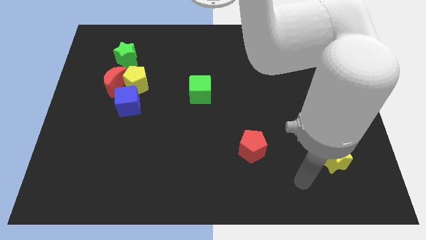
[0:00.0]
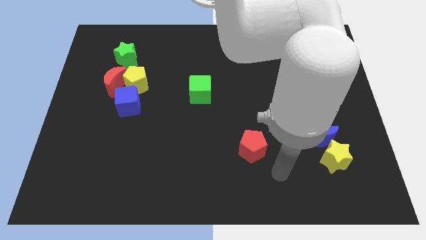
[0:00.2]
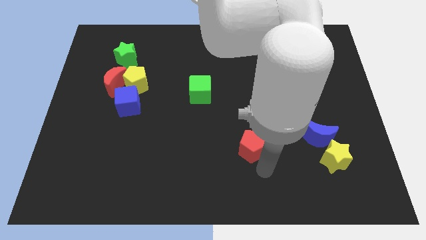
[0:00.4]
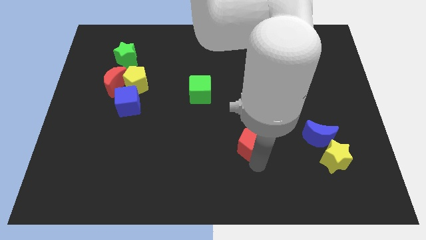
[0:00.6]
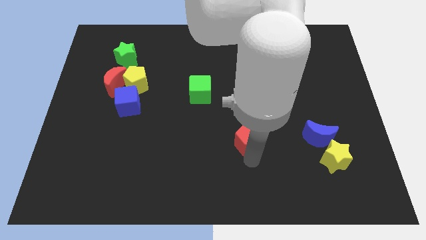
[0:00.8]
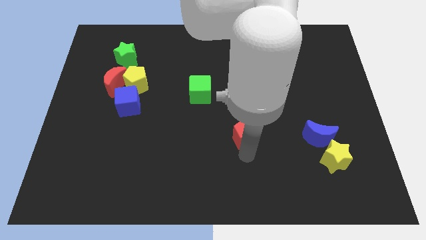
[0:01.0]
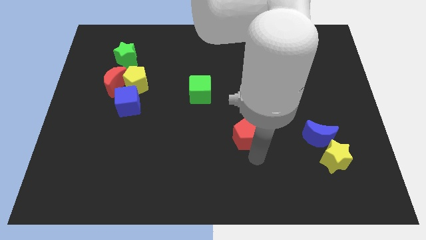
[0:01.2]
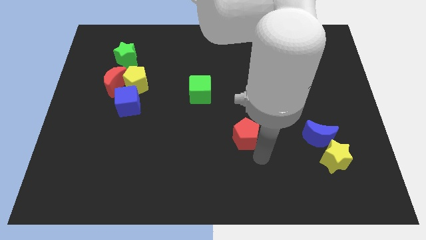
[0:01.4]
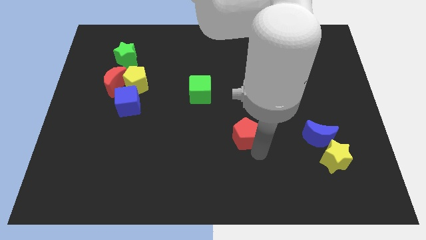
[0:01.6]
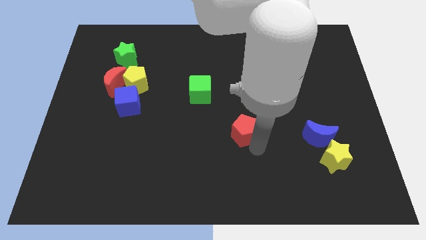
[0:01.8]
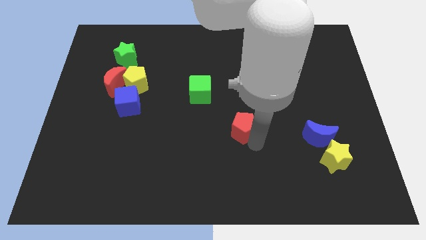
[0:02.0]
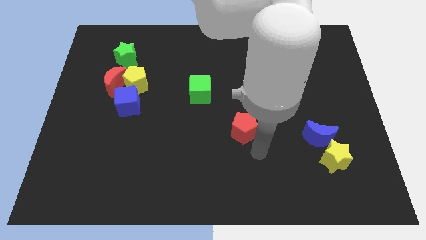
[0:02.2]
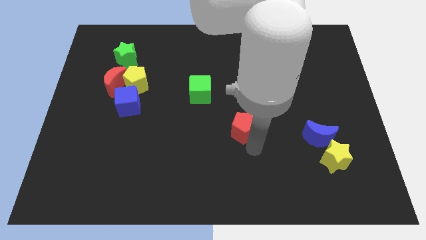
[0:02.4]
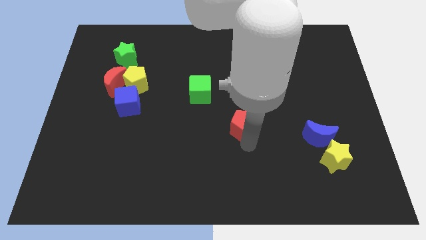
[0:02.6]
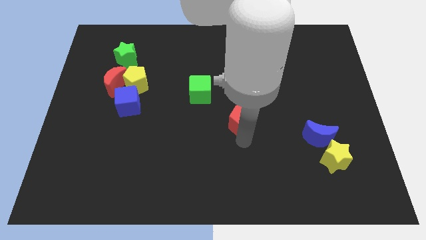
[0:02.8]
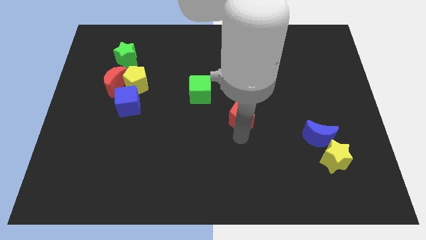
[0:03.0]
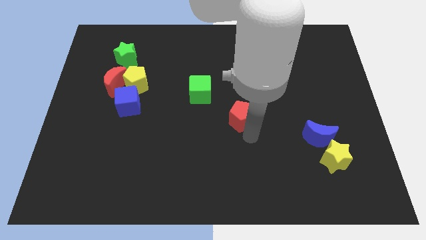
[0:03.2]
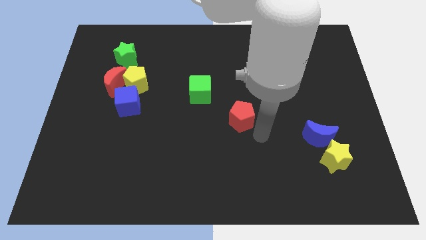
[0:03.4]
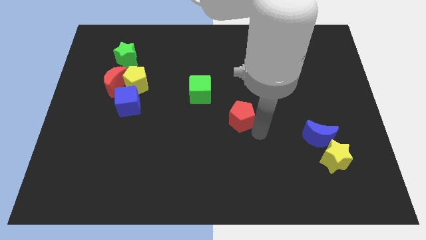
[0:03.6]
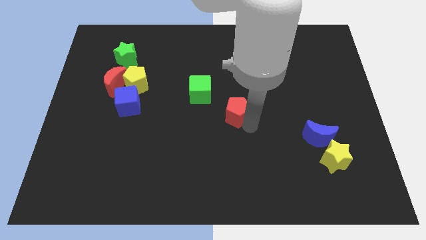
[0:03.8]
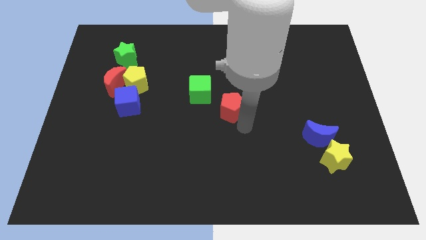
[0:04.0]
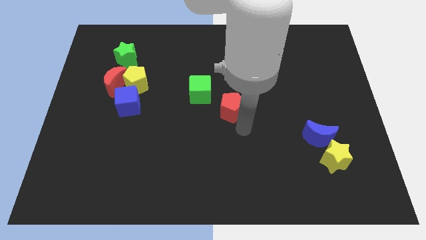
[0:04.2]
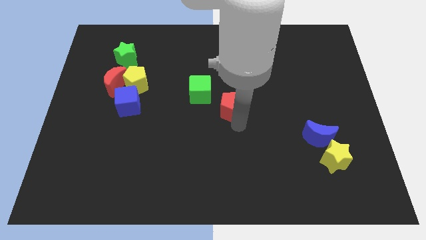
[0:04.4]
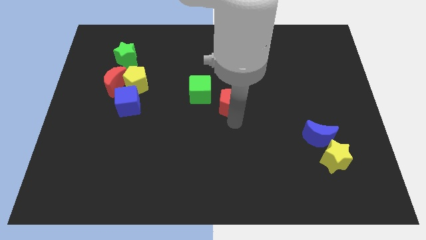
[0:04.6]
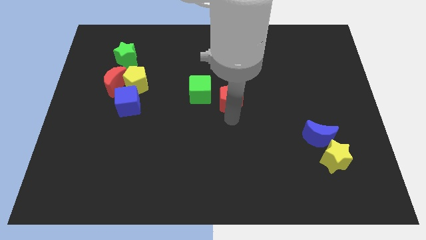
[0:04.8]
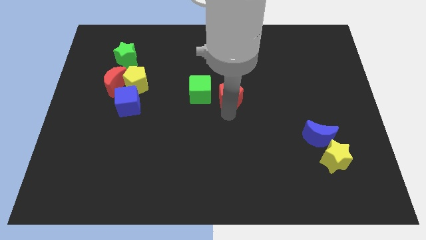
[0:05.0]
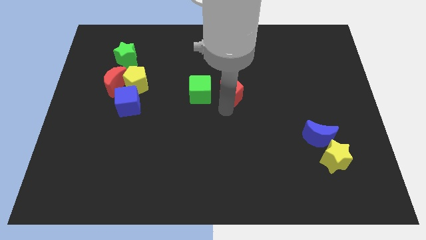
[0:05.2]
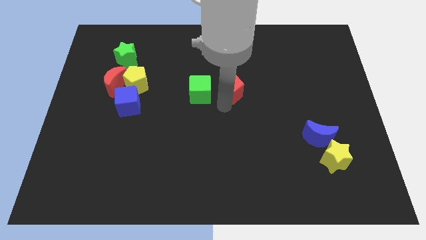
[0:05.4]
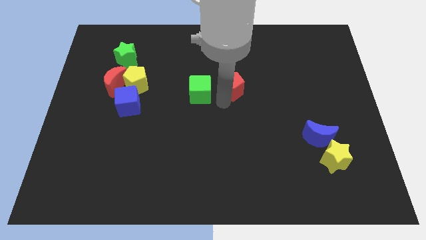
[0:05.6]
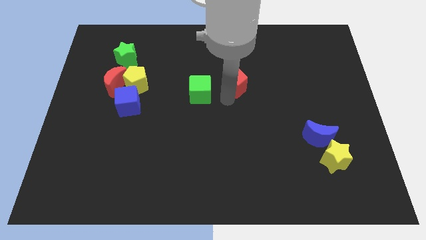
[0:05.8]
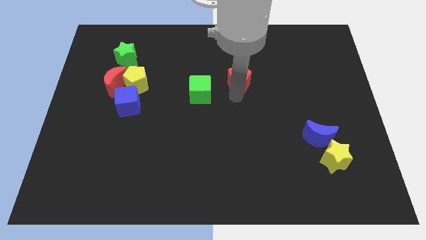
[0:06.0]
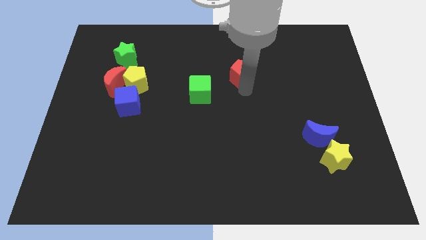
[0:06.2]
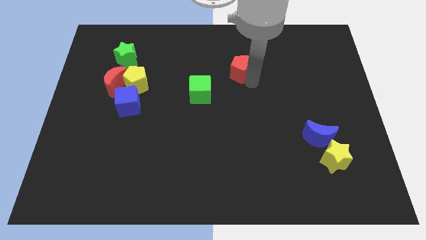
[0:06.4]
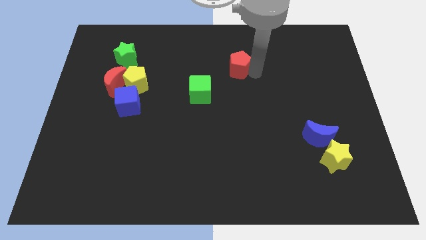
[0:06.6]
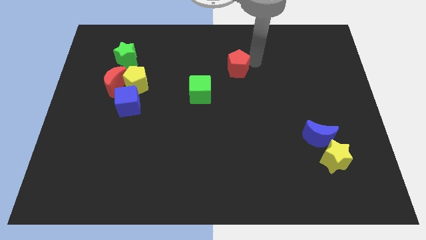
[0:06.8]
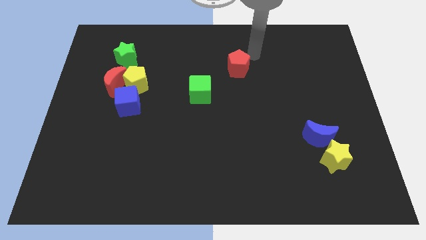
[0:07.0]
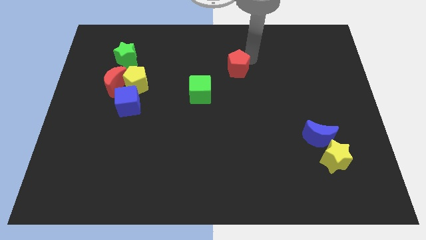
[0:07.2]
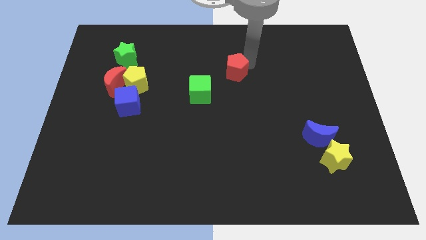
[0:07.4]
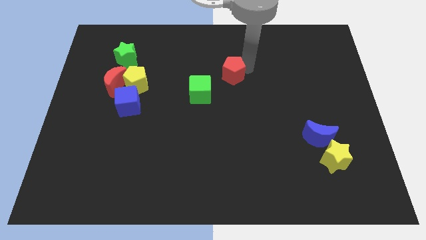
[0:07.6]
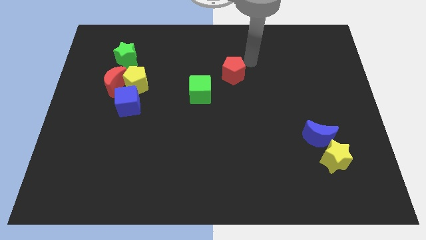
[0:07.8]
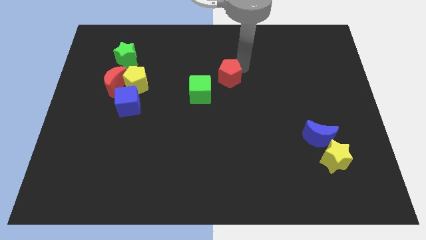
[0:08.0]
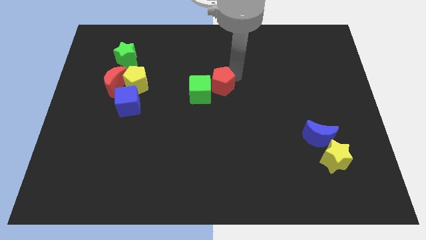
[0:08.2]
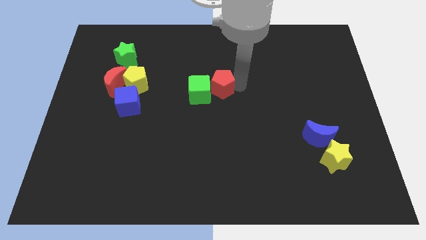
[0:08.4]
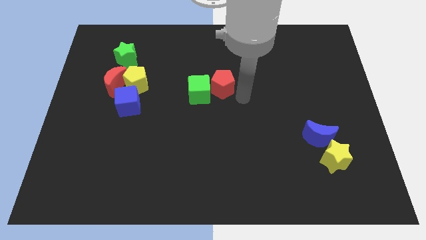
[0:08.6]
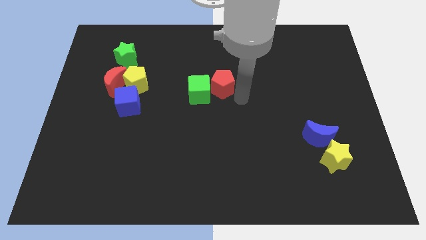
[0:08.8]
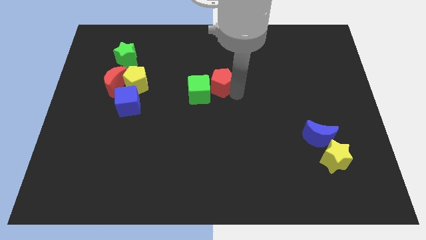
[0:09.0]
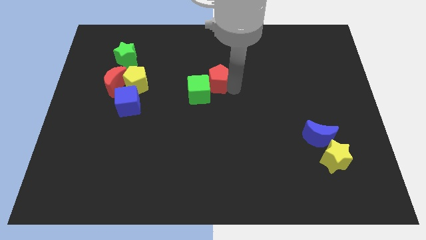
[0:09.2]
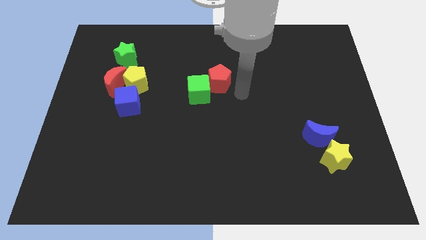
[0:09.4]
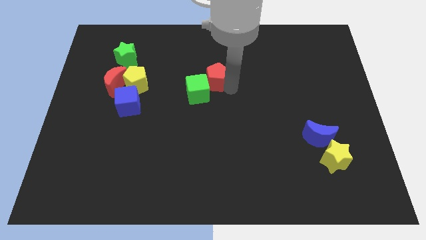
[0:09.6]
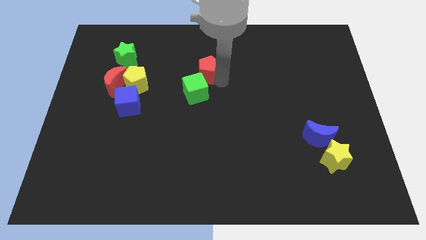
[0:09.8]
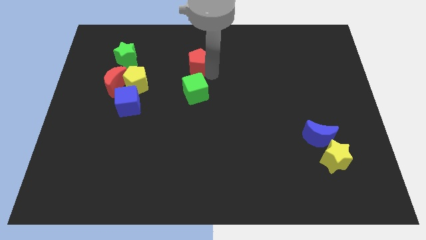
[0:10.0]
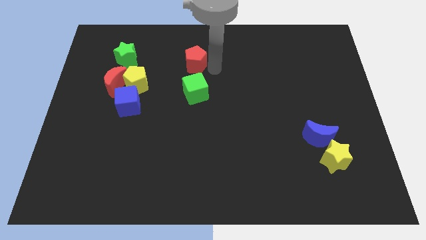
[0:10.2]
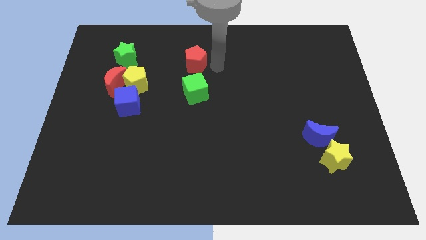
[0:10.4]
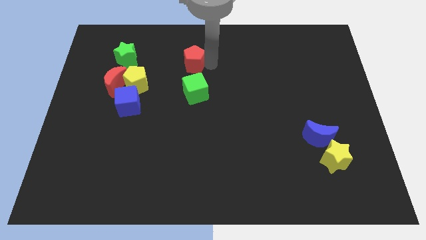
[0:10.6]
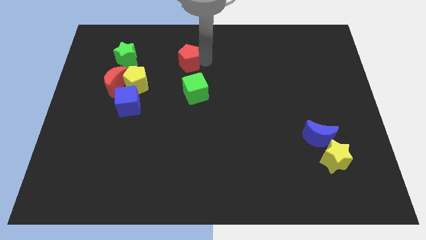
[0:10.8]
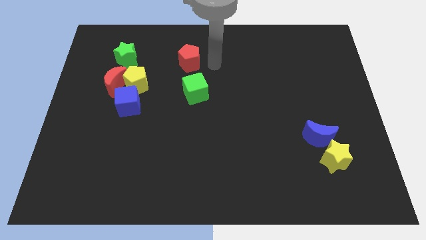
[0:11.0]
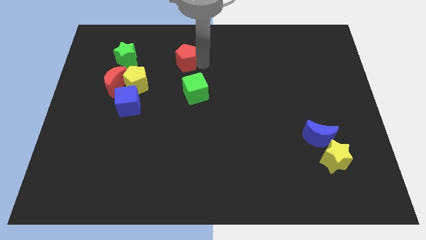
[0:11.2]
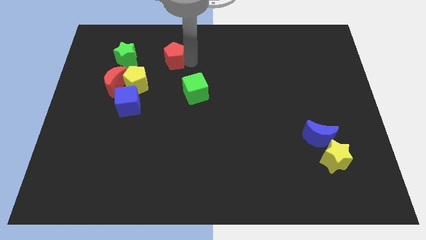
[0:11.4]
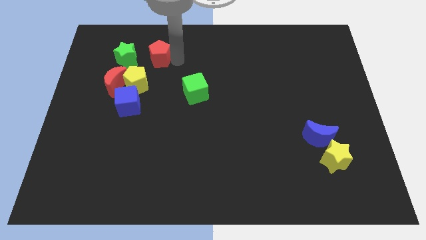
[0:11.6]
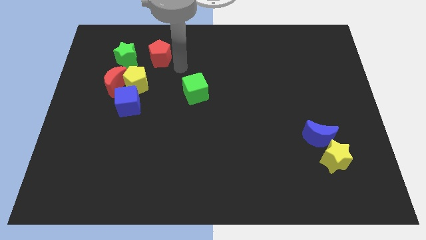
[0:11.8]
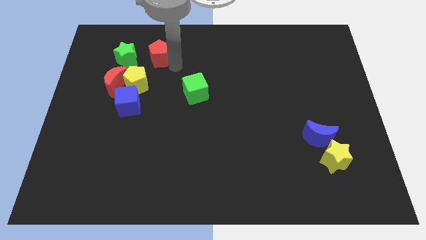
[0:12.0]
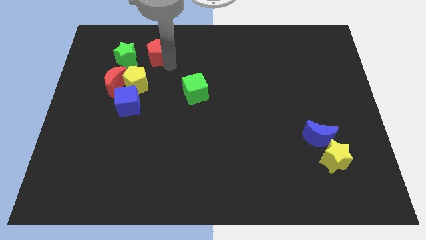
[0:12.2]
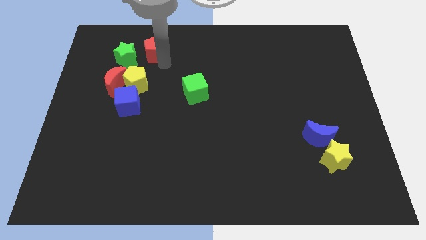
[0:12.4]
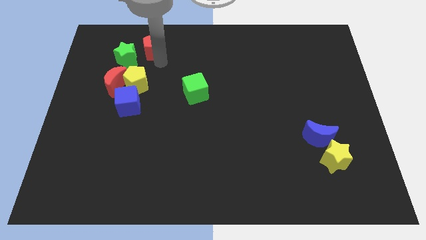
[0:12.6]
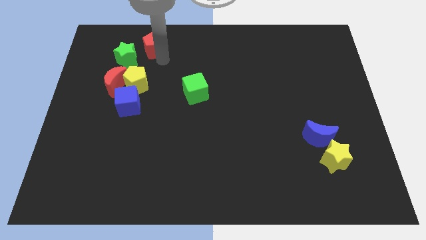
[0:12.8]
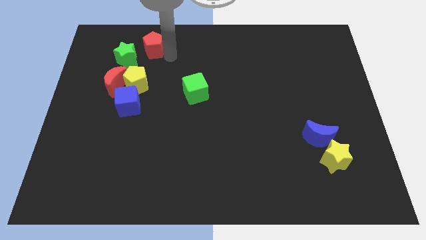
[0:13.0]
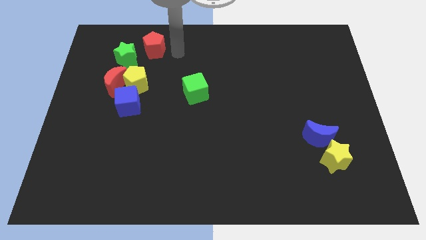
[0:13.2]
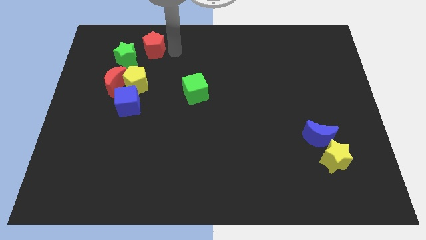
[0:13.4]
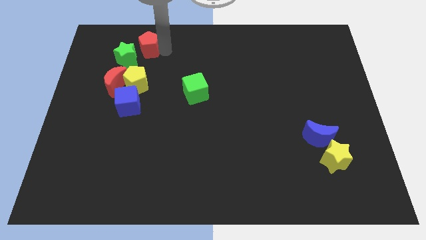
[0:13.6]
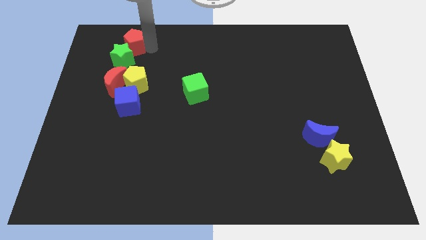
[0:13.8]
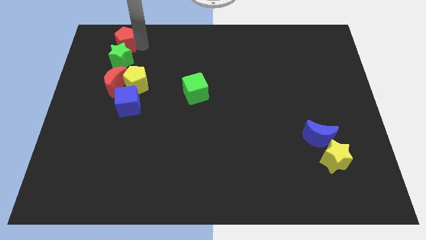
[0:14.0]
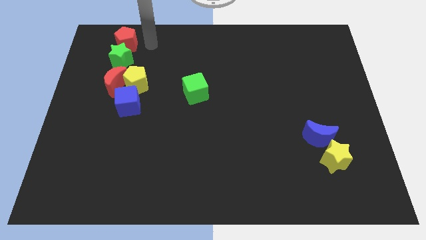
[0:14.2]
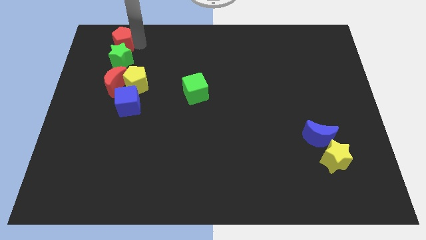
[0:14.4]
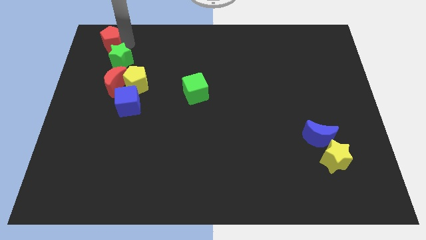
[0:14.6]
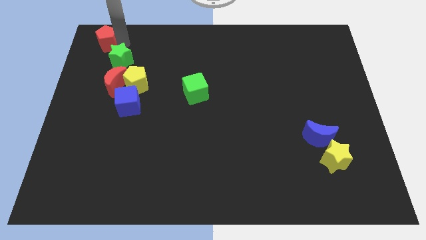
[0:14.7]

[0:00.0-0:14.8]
slide the red pentagon to the upper left corner
